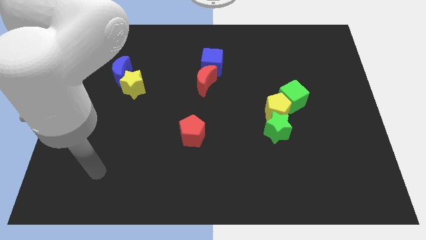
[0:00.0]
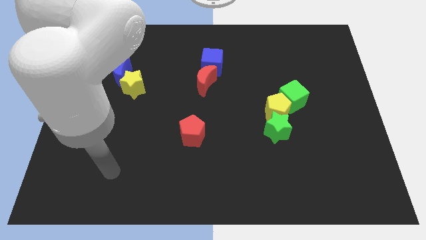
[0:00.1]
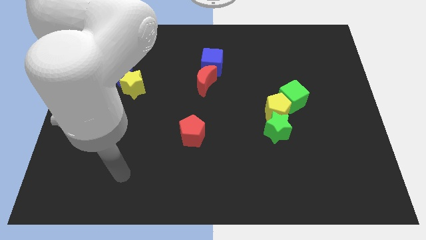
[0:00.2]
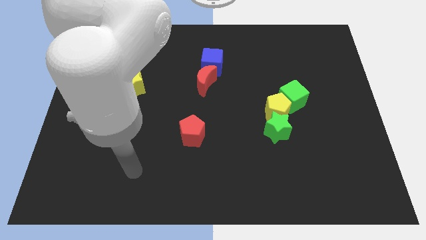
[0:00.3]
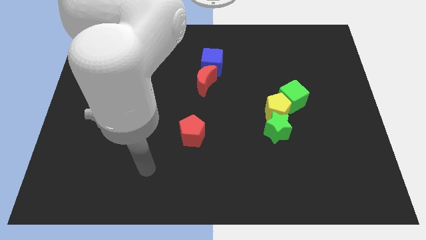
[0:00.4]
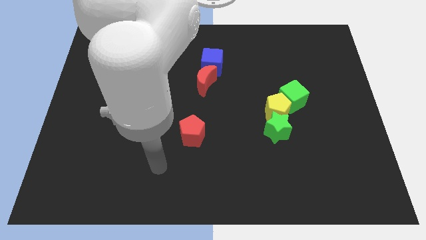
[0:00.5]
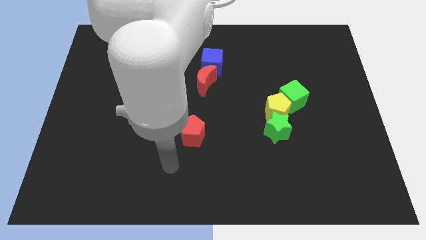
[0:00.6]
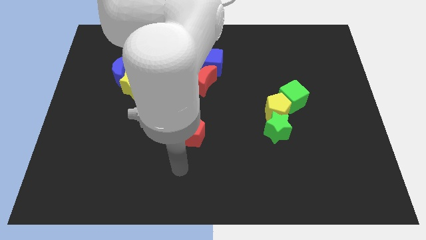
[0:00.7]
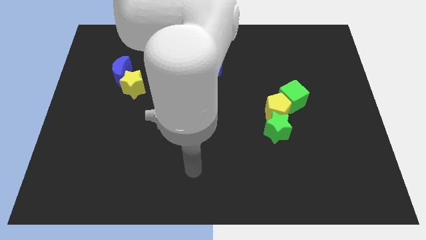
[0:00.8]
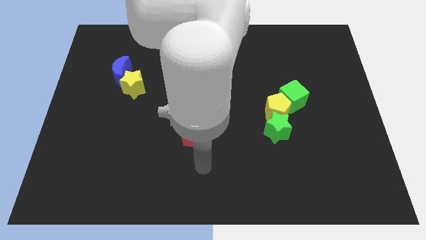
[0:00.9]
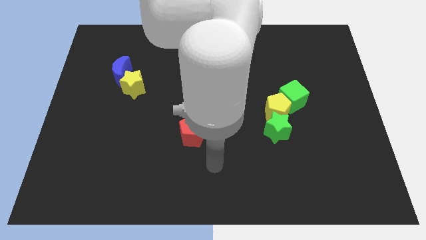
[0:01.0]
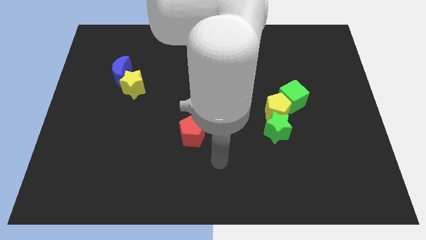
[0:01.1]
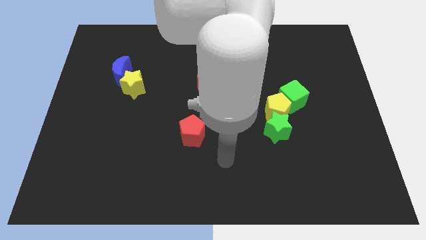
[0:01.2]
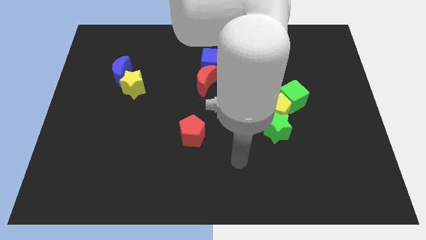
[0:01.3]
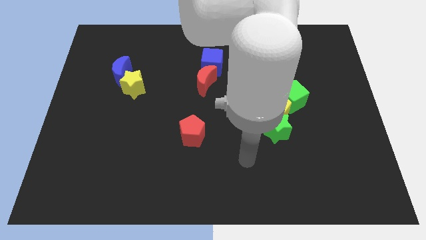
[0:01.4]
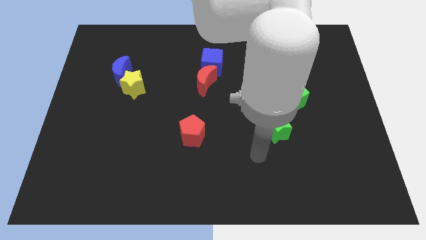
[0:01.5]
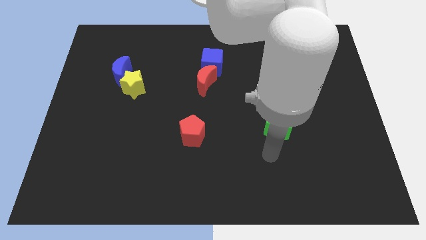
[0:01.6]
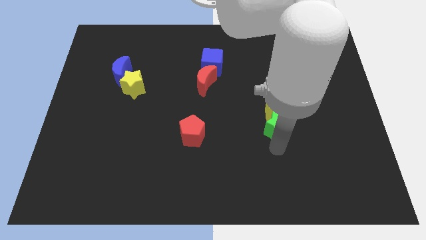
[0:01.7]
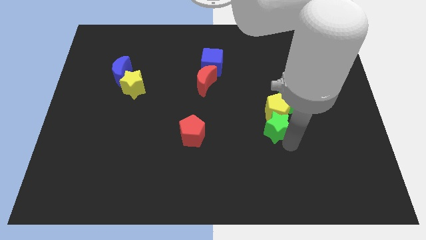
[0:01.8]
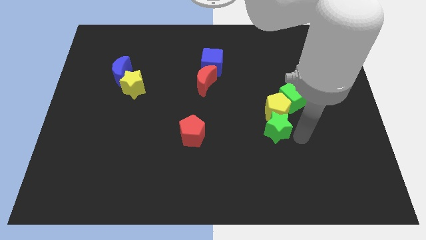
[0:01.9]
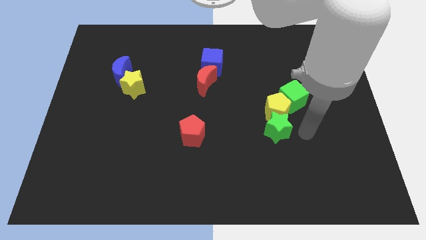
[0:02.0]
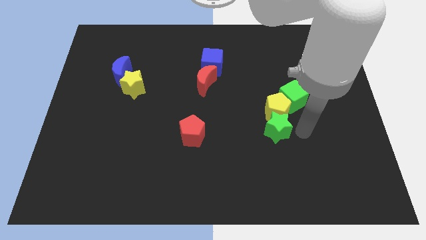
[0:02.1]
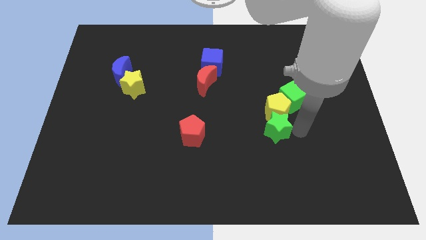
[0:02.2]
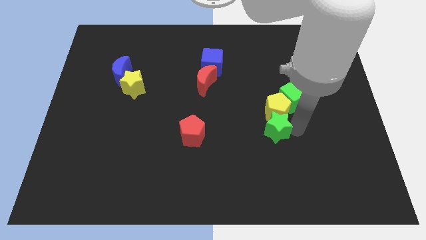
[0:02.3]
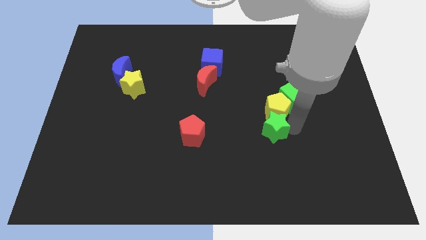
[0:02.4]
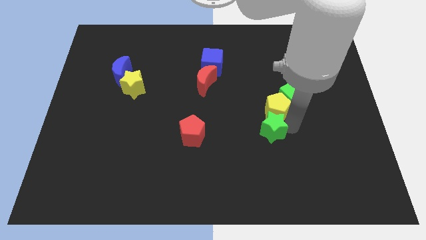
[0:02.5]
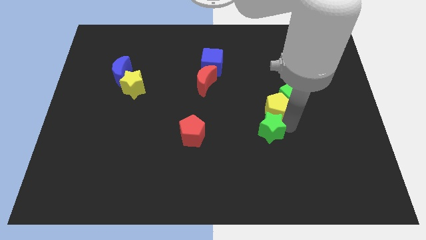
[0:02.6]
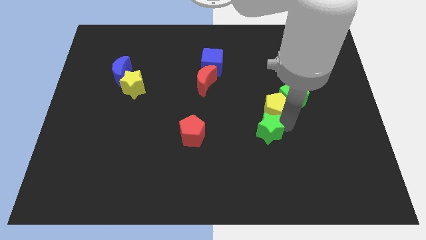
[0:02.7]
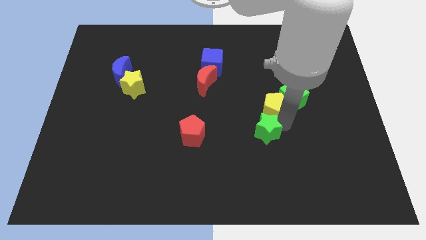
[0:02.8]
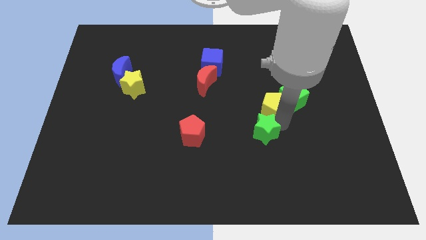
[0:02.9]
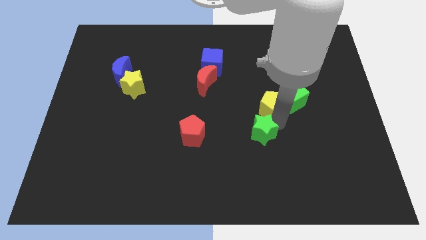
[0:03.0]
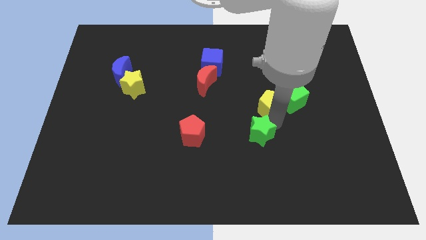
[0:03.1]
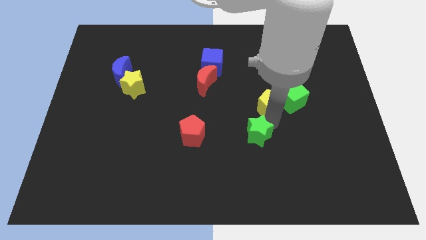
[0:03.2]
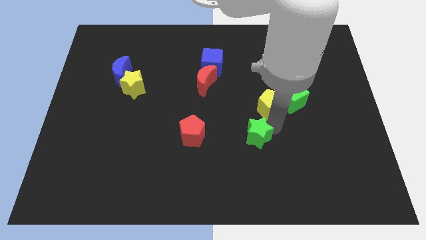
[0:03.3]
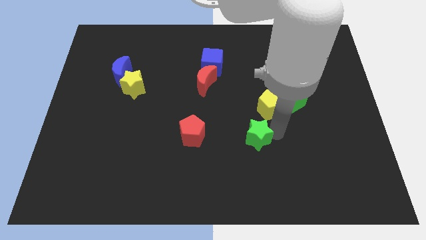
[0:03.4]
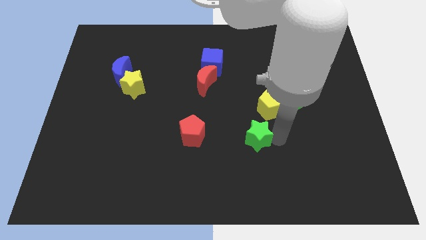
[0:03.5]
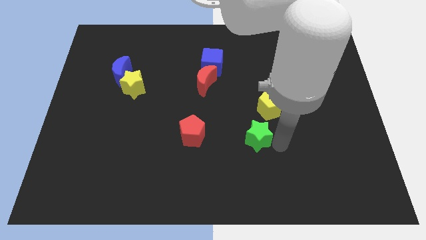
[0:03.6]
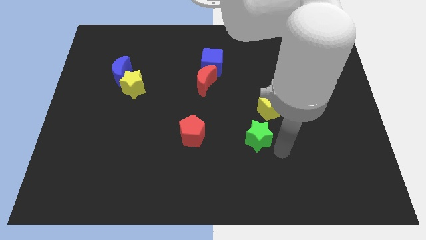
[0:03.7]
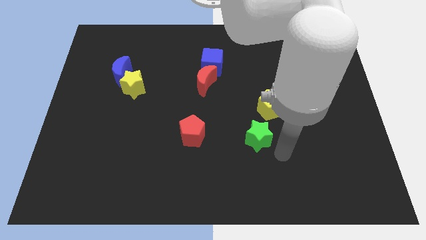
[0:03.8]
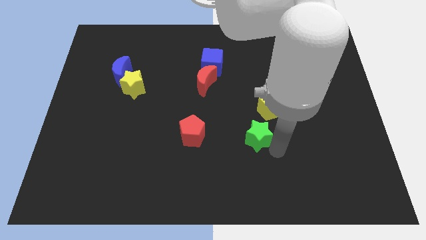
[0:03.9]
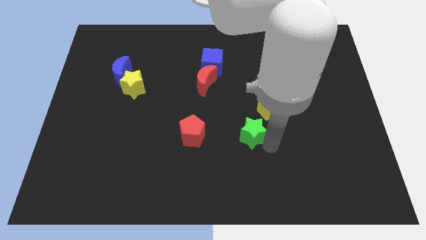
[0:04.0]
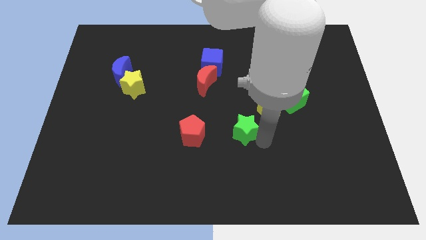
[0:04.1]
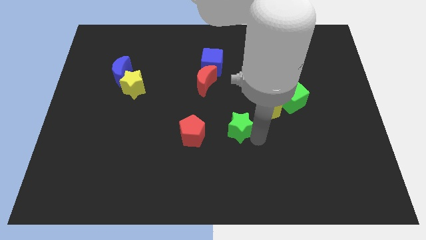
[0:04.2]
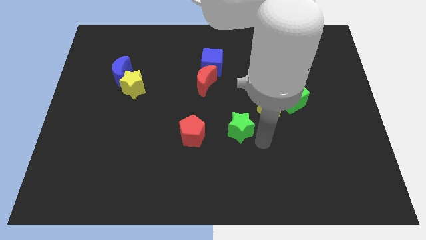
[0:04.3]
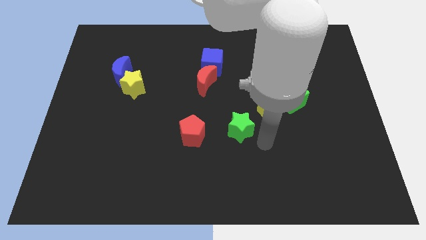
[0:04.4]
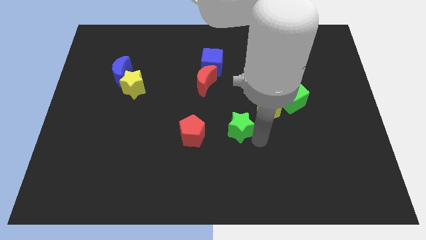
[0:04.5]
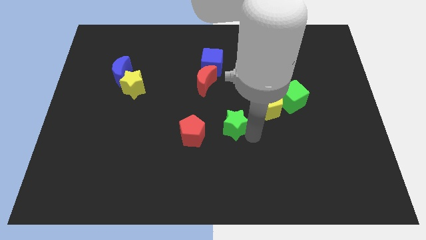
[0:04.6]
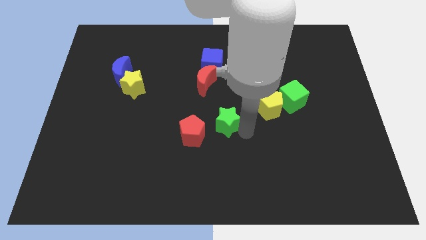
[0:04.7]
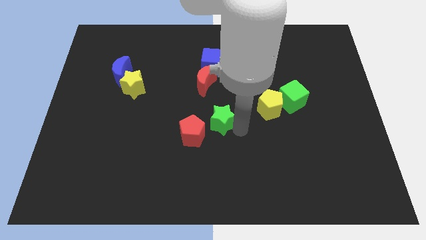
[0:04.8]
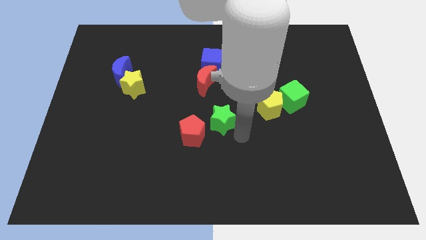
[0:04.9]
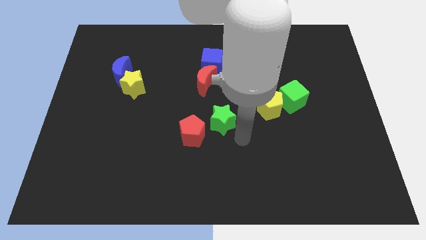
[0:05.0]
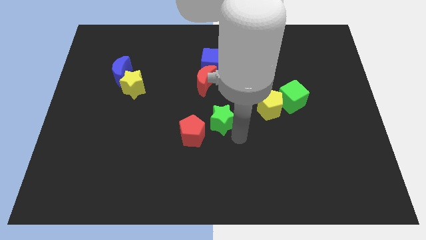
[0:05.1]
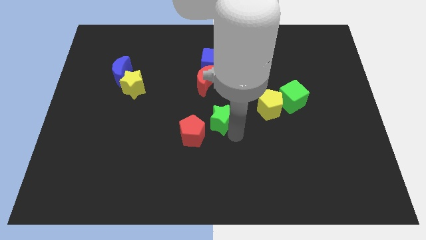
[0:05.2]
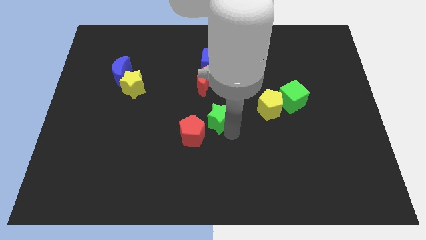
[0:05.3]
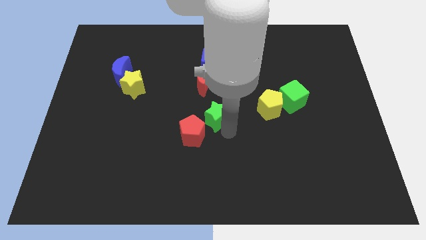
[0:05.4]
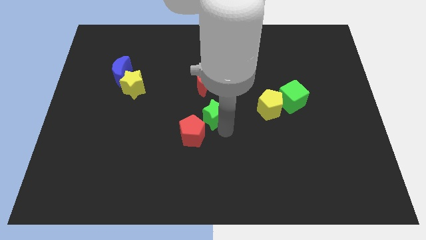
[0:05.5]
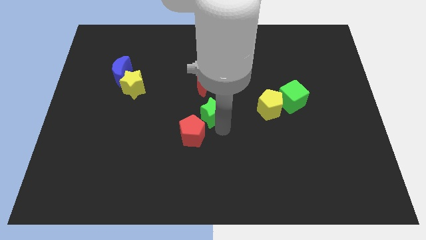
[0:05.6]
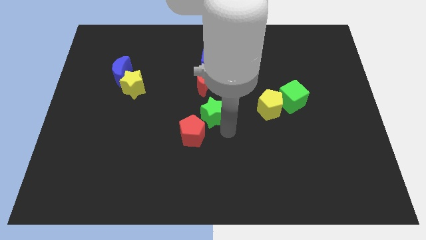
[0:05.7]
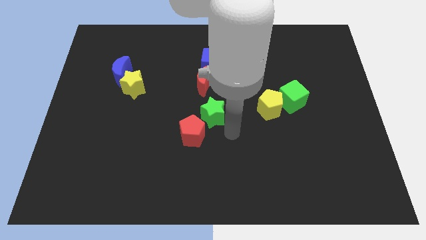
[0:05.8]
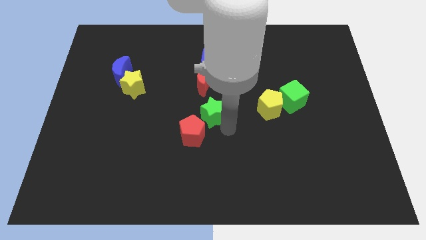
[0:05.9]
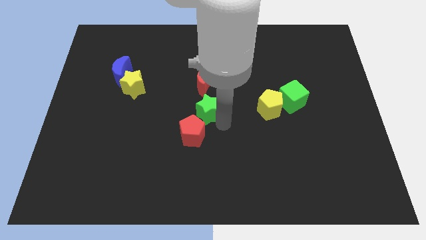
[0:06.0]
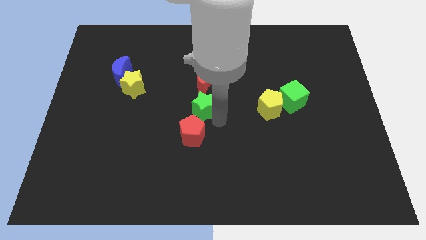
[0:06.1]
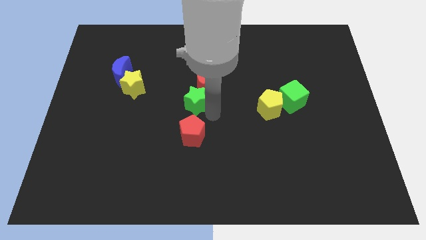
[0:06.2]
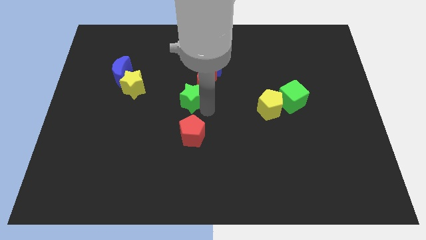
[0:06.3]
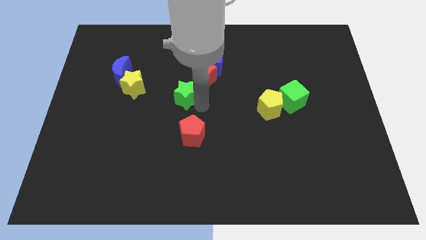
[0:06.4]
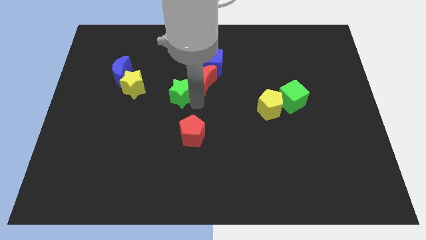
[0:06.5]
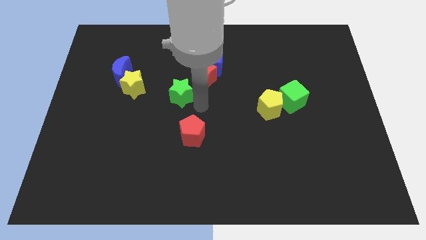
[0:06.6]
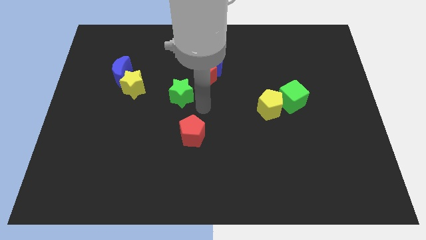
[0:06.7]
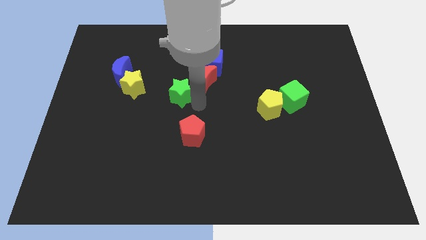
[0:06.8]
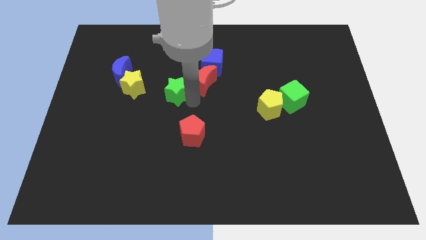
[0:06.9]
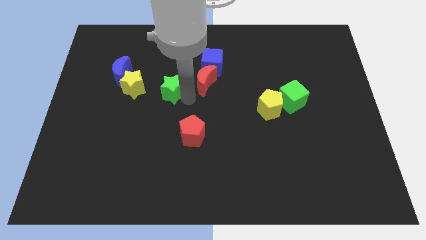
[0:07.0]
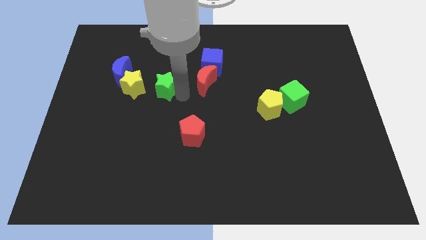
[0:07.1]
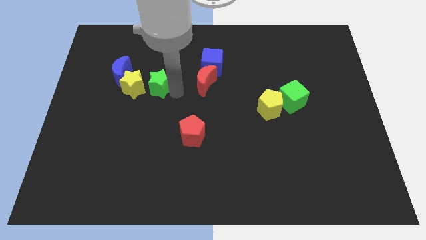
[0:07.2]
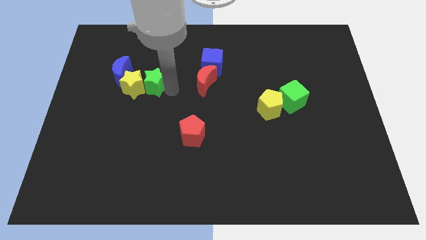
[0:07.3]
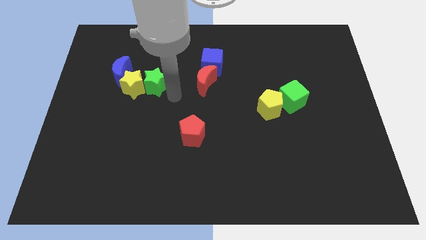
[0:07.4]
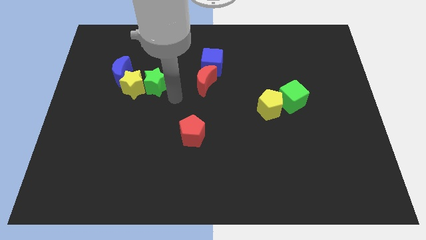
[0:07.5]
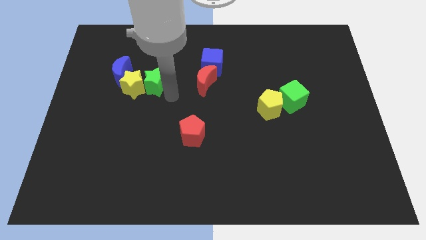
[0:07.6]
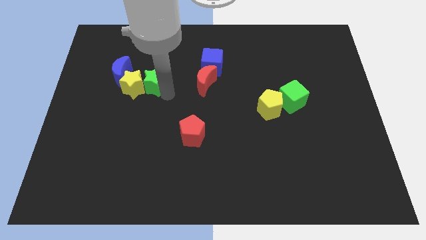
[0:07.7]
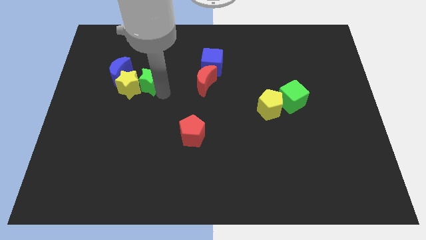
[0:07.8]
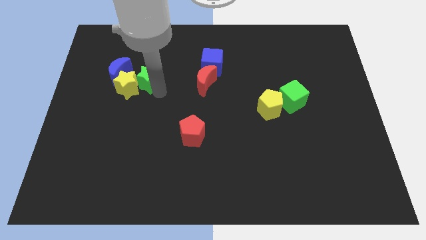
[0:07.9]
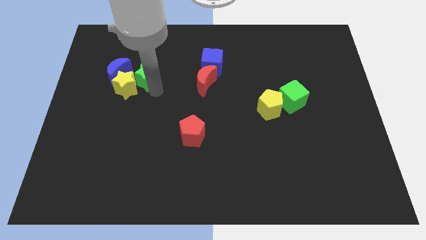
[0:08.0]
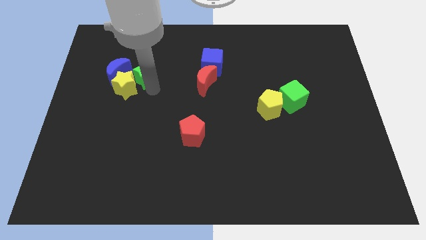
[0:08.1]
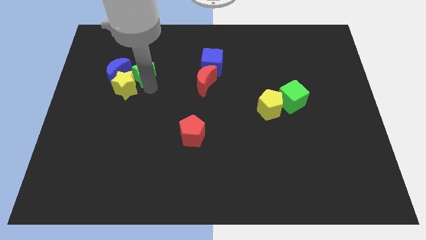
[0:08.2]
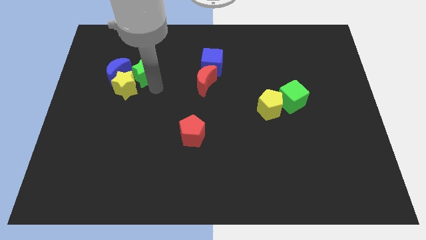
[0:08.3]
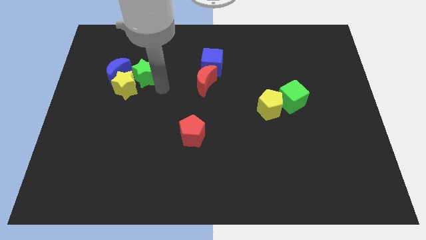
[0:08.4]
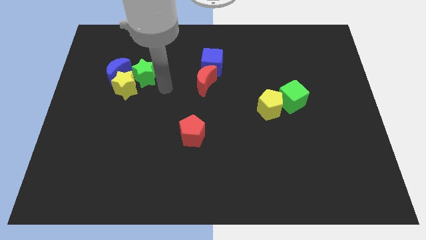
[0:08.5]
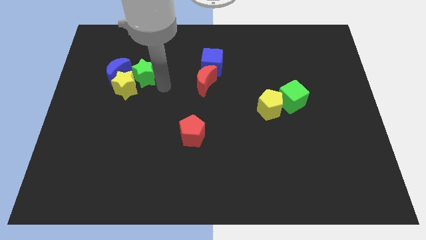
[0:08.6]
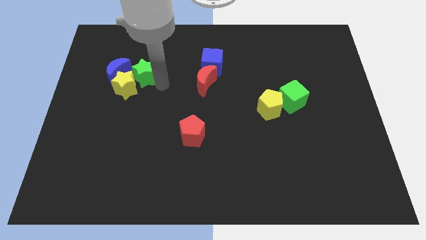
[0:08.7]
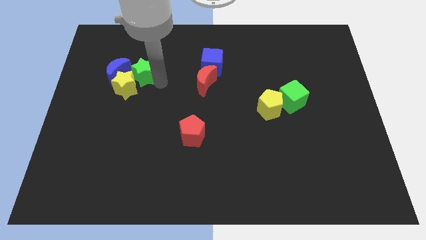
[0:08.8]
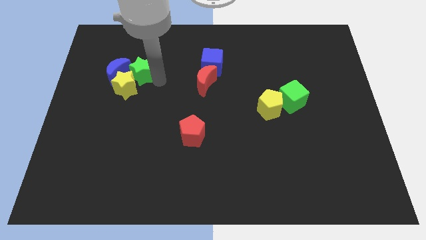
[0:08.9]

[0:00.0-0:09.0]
push the green star close to the blue moon
